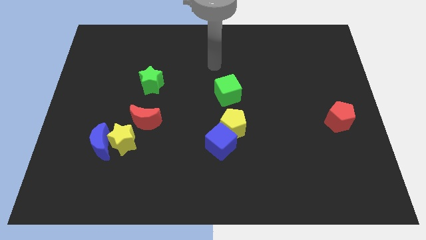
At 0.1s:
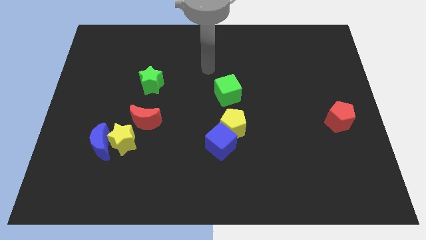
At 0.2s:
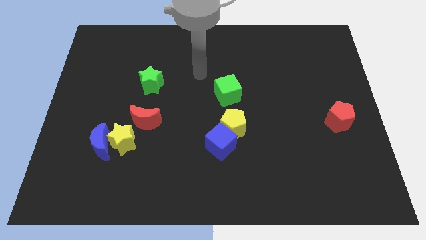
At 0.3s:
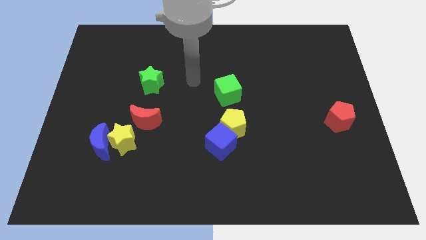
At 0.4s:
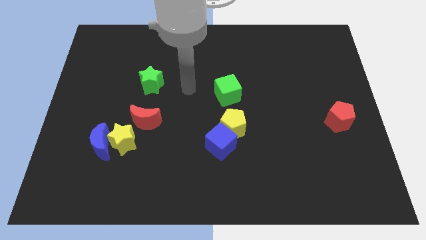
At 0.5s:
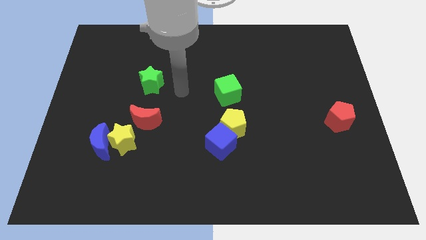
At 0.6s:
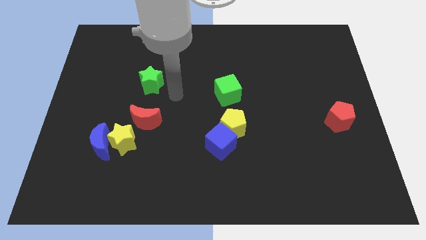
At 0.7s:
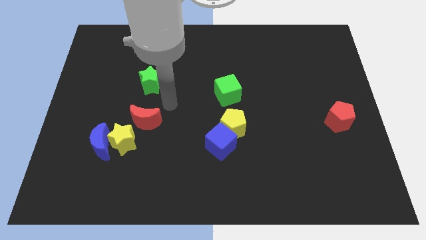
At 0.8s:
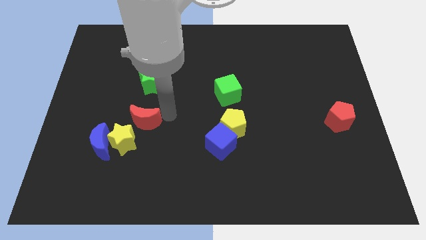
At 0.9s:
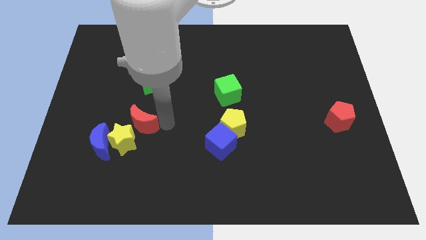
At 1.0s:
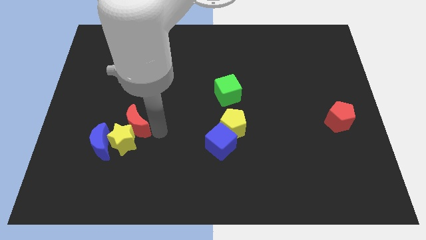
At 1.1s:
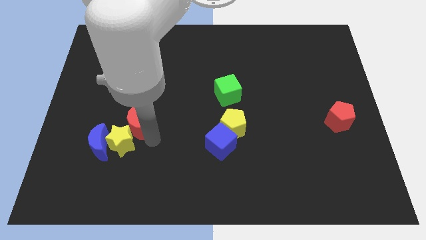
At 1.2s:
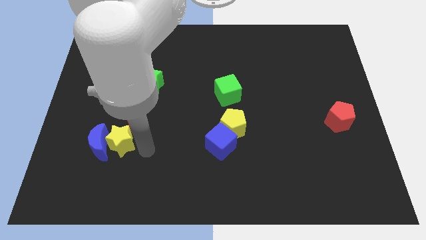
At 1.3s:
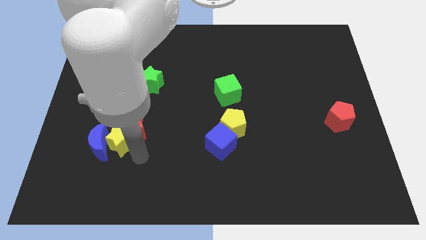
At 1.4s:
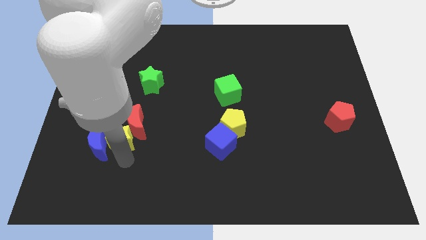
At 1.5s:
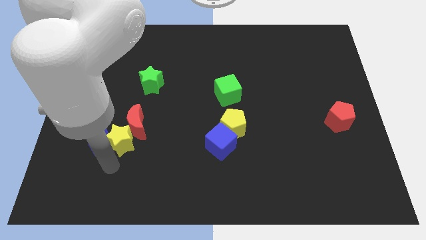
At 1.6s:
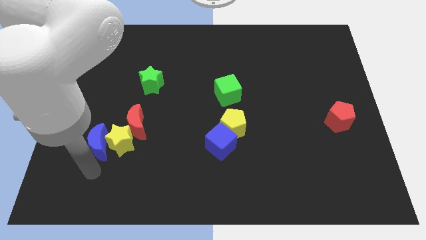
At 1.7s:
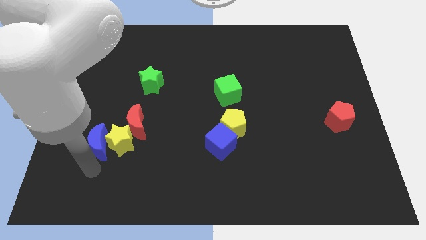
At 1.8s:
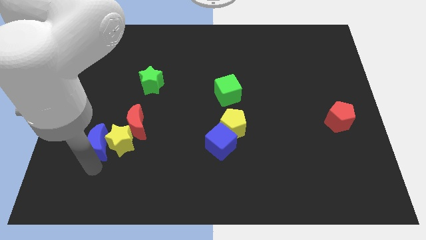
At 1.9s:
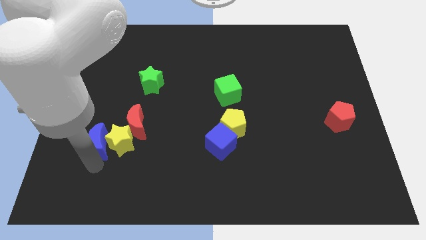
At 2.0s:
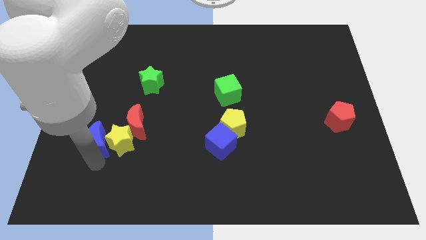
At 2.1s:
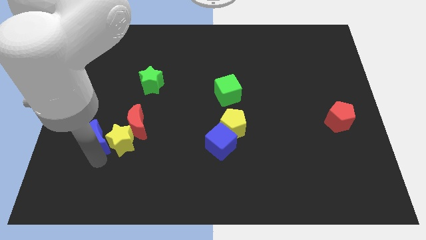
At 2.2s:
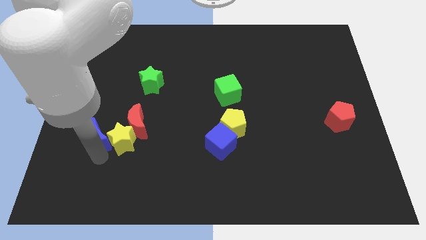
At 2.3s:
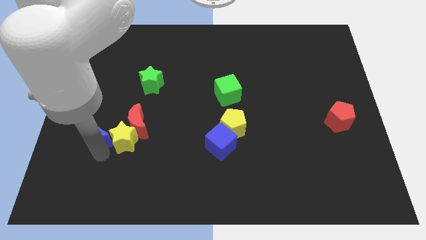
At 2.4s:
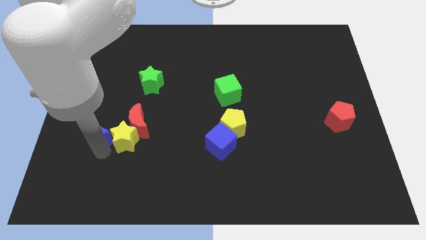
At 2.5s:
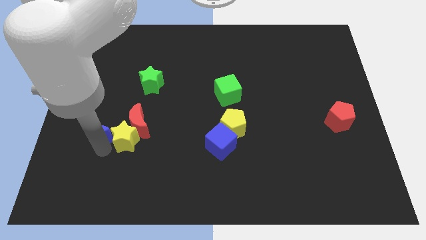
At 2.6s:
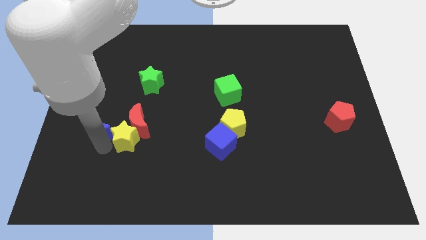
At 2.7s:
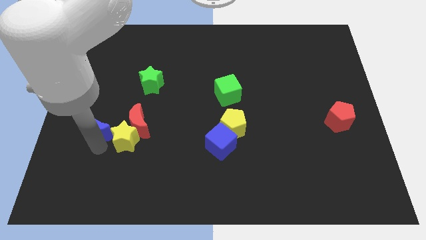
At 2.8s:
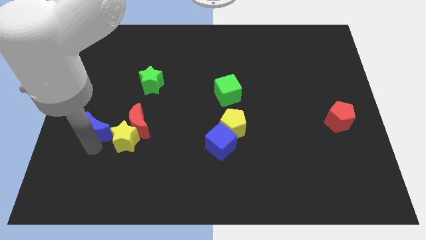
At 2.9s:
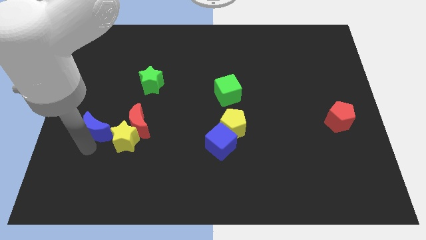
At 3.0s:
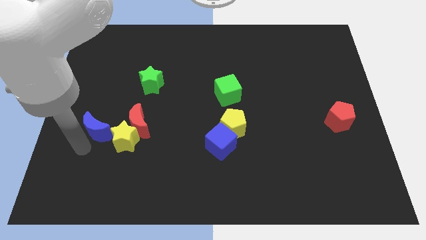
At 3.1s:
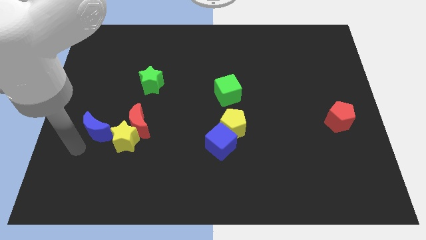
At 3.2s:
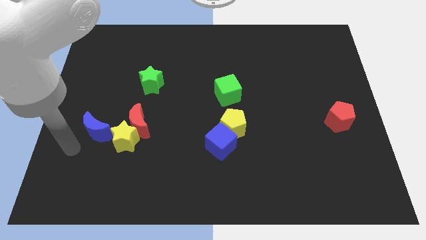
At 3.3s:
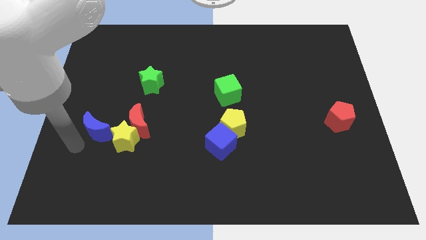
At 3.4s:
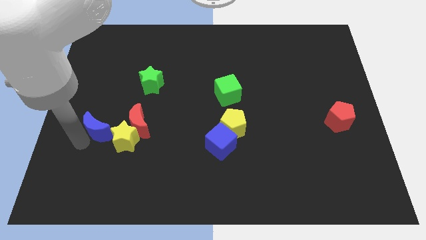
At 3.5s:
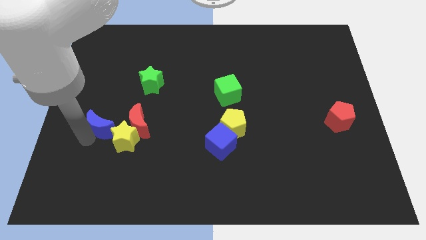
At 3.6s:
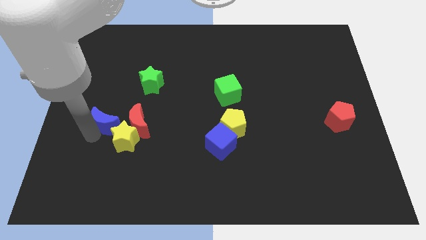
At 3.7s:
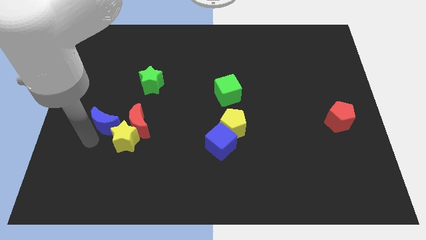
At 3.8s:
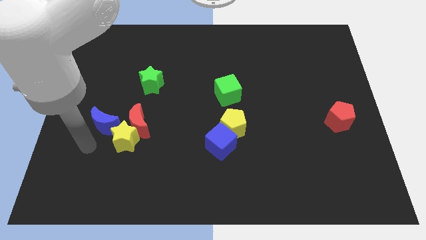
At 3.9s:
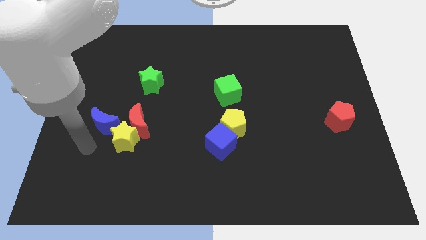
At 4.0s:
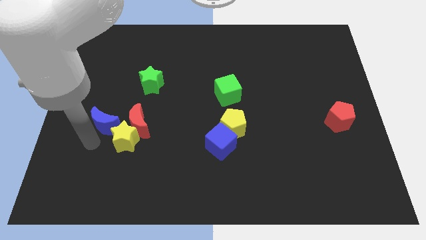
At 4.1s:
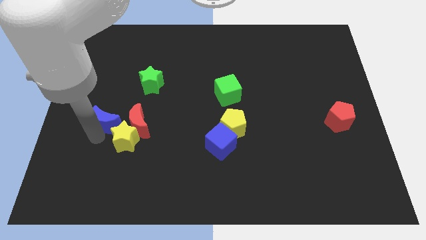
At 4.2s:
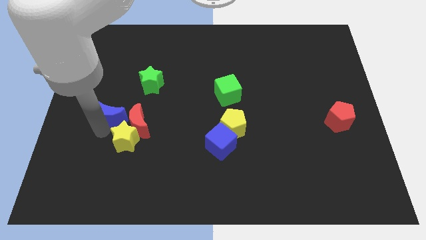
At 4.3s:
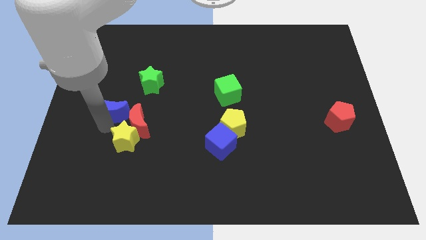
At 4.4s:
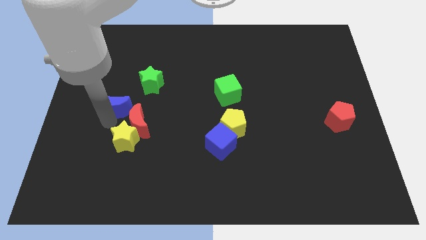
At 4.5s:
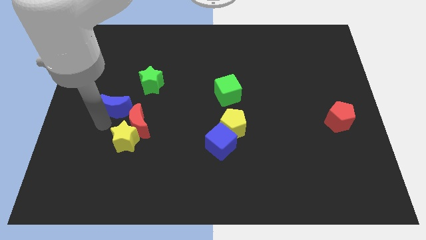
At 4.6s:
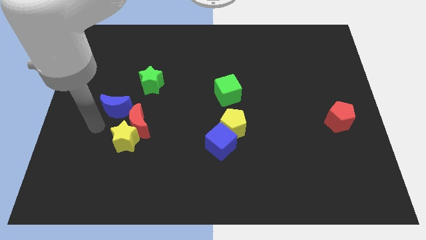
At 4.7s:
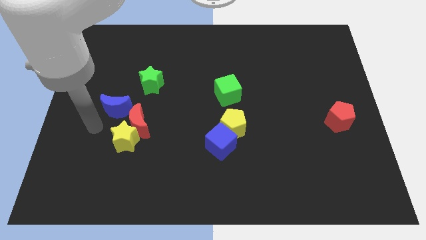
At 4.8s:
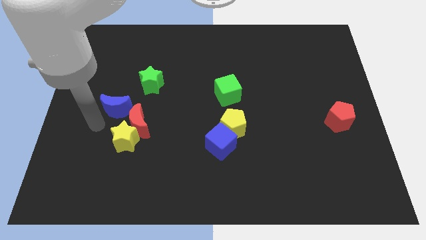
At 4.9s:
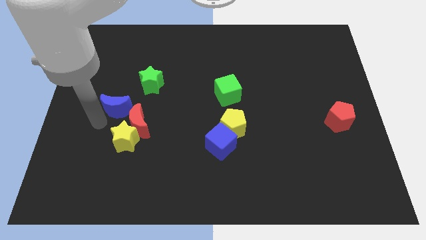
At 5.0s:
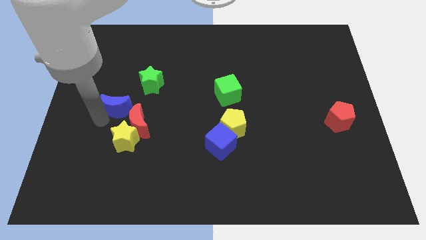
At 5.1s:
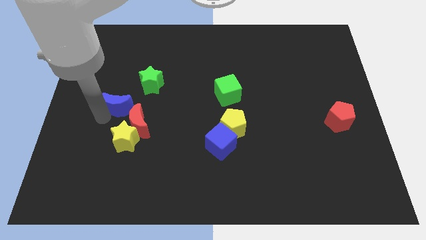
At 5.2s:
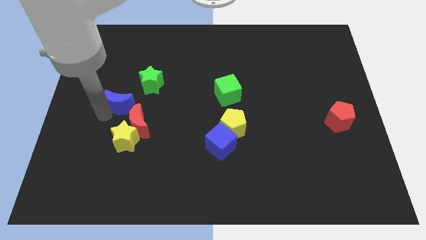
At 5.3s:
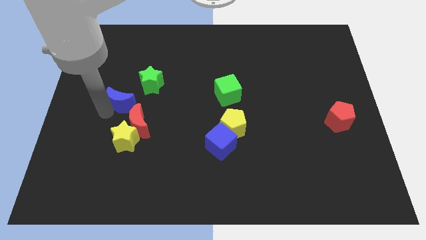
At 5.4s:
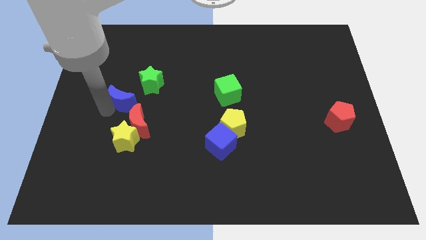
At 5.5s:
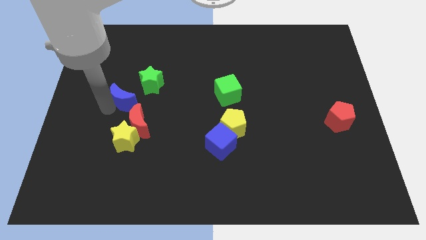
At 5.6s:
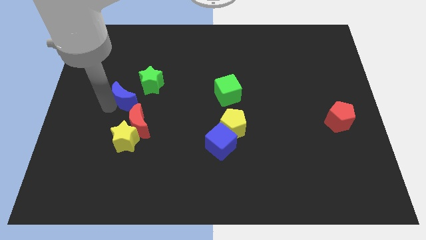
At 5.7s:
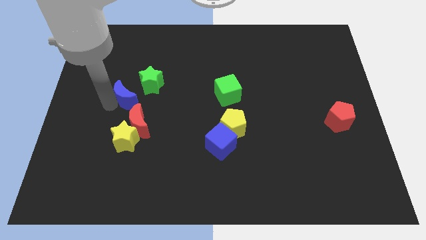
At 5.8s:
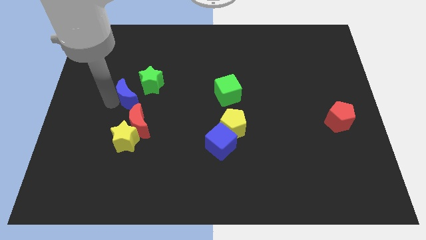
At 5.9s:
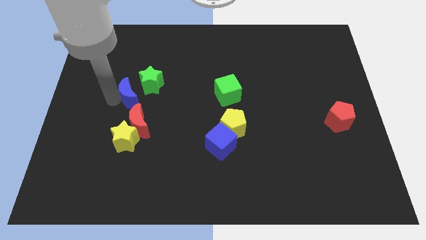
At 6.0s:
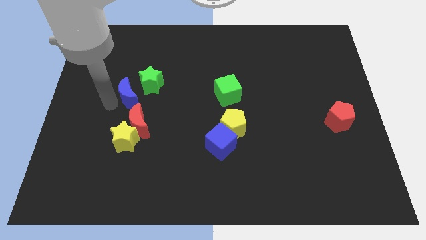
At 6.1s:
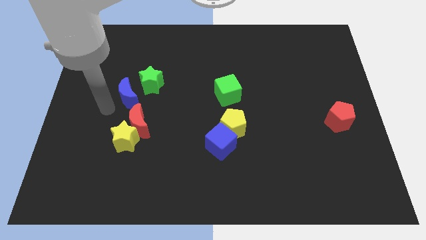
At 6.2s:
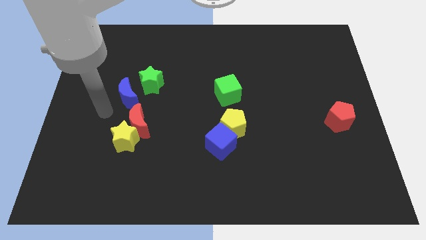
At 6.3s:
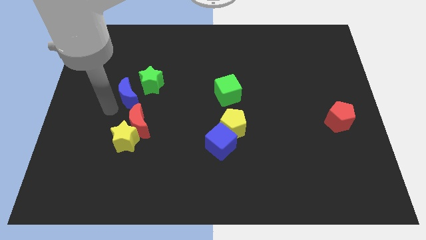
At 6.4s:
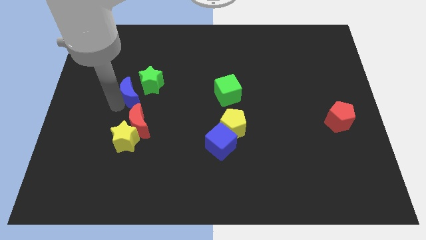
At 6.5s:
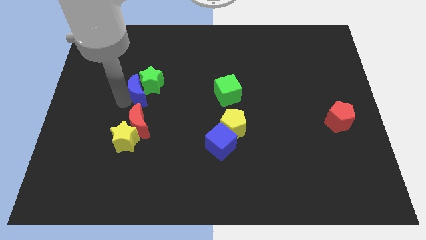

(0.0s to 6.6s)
move the blue moon towards the green star

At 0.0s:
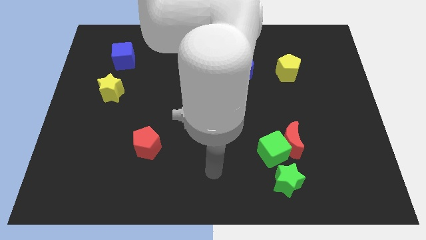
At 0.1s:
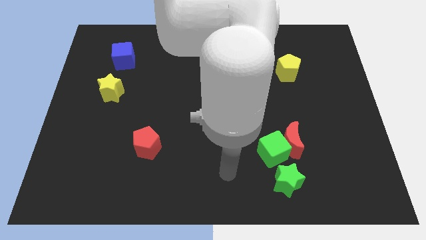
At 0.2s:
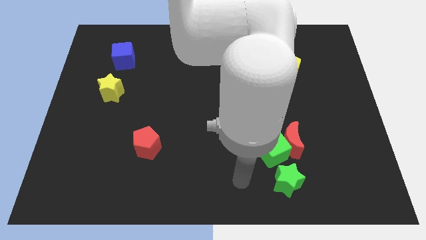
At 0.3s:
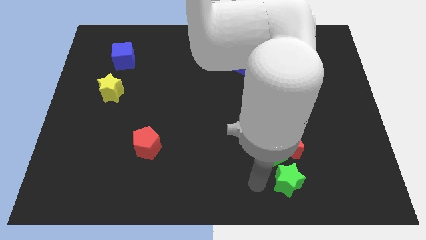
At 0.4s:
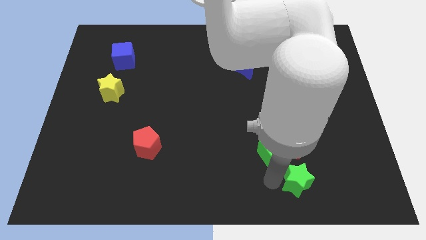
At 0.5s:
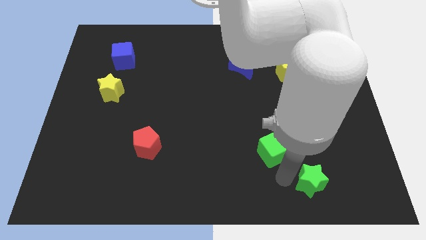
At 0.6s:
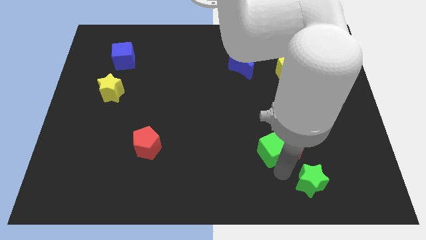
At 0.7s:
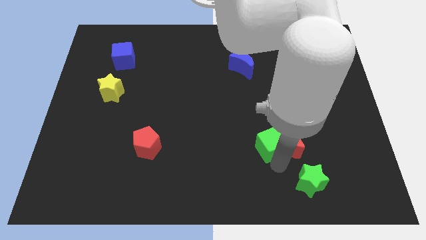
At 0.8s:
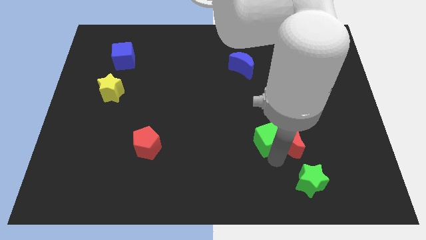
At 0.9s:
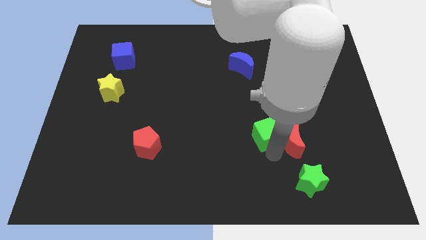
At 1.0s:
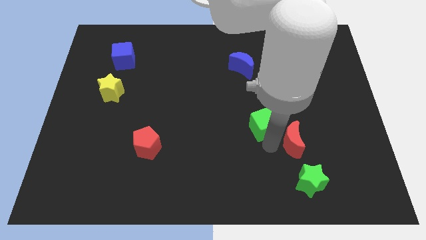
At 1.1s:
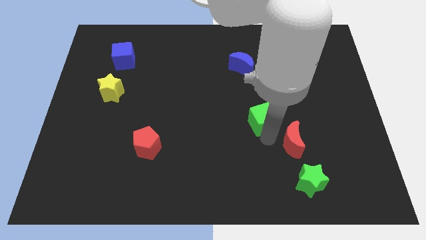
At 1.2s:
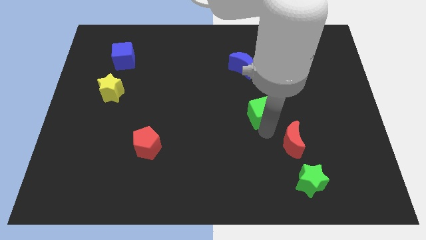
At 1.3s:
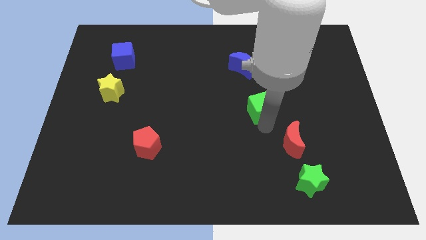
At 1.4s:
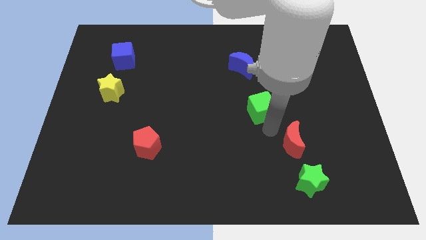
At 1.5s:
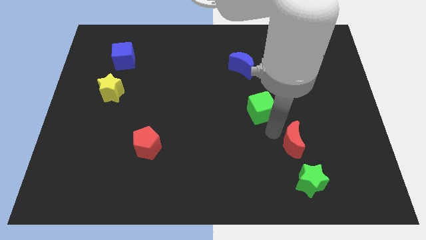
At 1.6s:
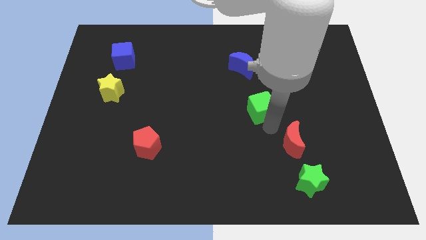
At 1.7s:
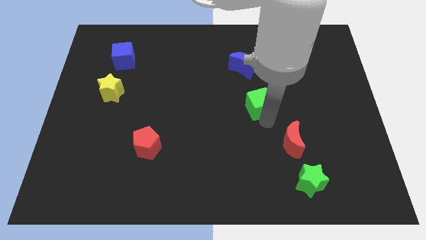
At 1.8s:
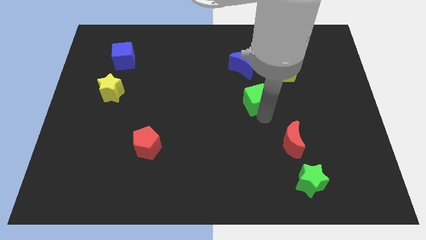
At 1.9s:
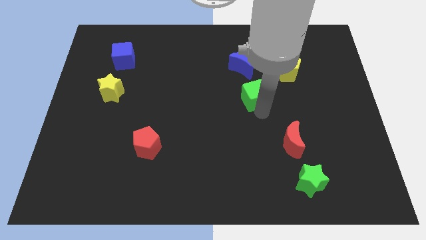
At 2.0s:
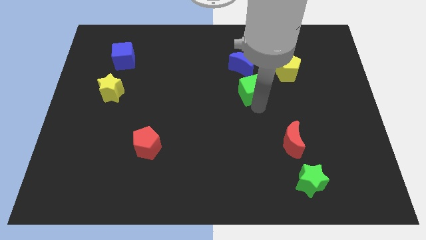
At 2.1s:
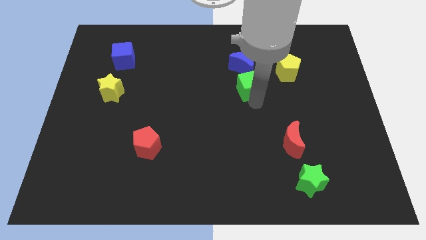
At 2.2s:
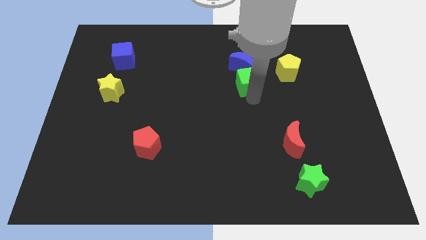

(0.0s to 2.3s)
push the green cube to the blue moon
